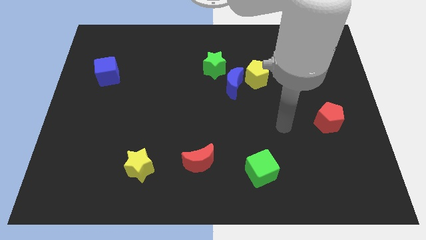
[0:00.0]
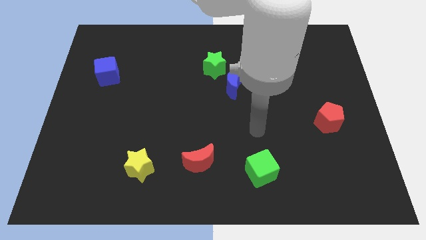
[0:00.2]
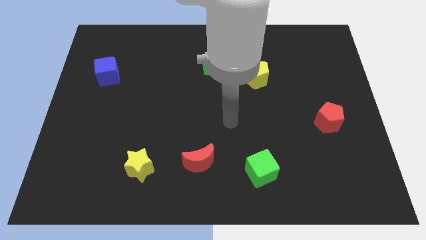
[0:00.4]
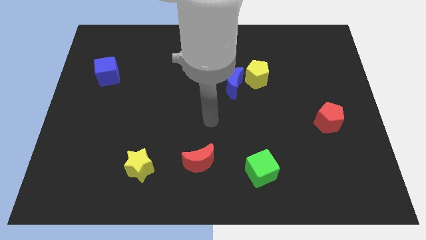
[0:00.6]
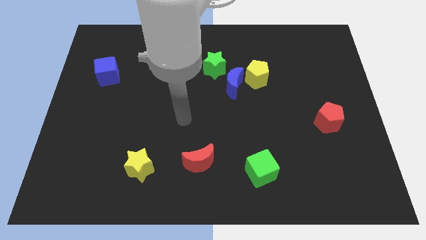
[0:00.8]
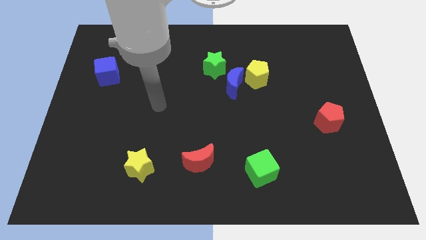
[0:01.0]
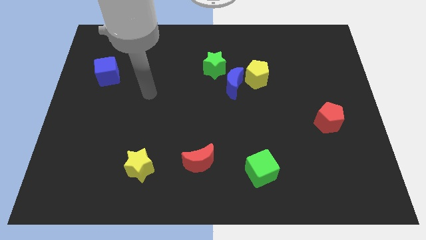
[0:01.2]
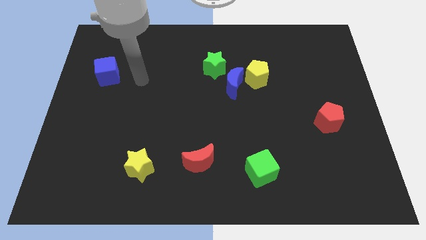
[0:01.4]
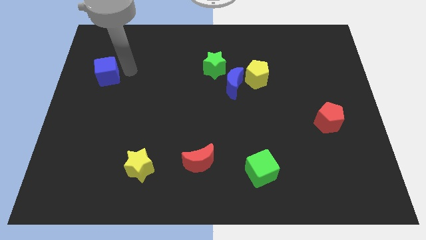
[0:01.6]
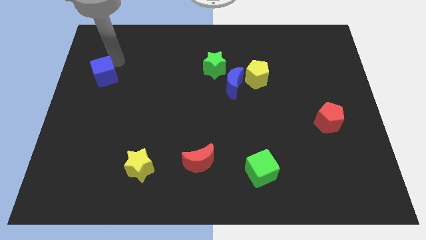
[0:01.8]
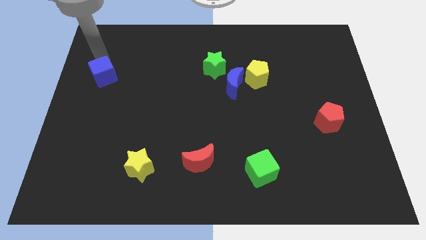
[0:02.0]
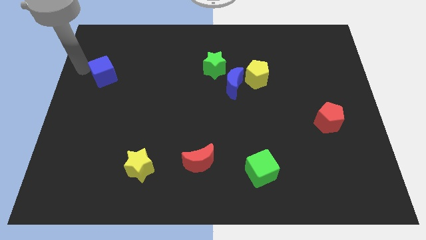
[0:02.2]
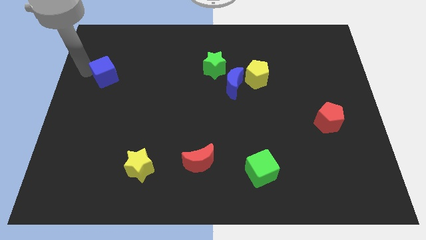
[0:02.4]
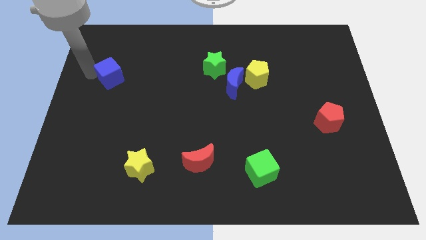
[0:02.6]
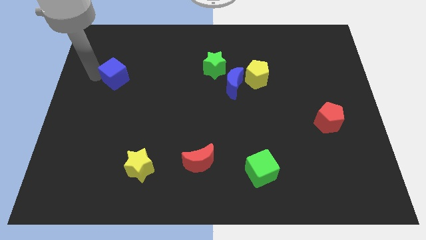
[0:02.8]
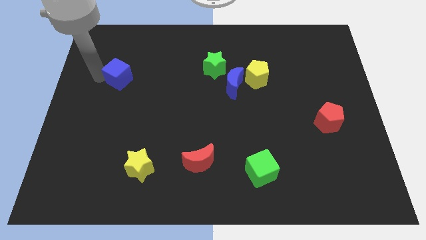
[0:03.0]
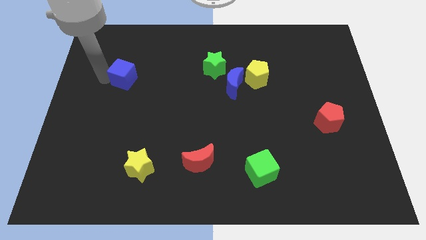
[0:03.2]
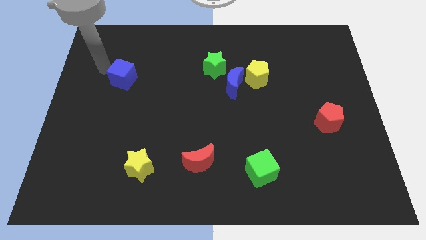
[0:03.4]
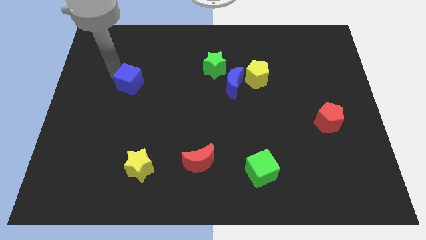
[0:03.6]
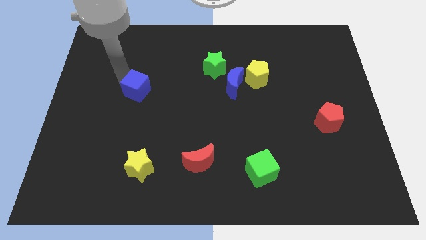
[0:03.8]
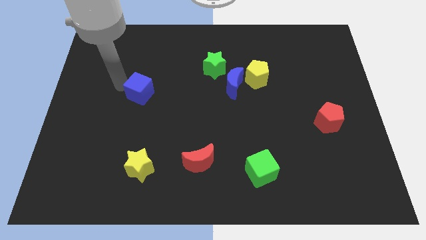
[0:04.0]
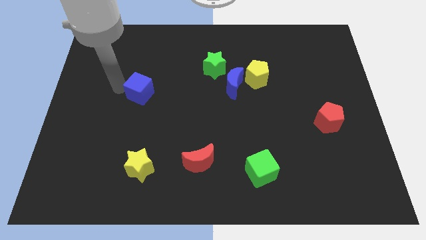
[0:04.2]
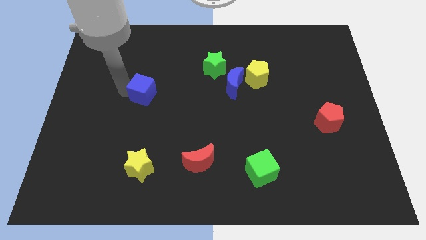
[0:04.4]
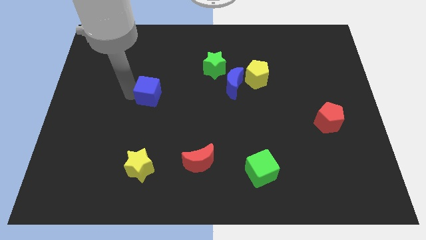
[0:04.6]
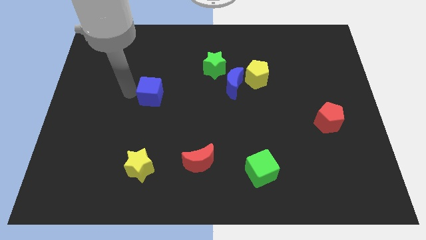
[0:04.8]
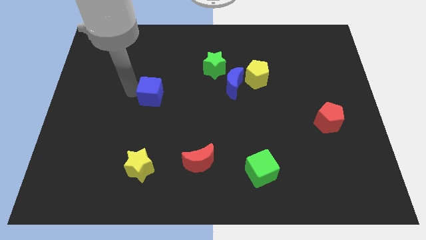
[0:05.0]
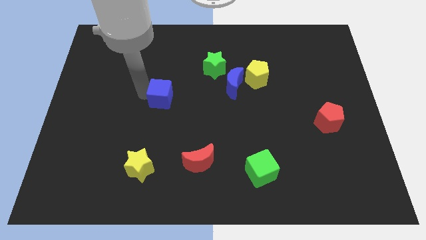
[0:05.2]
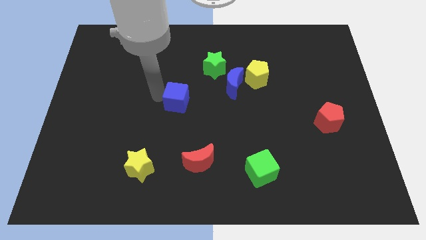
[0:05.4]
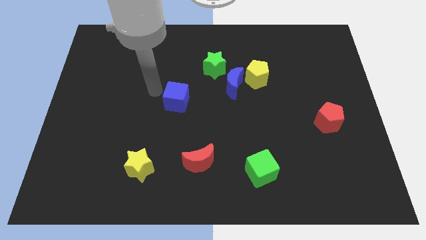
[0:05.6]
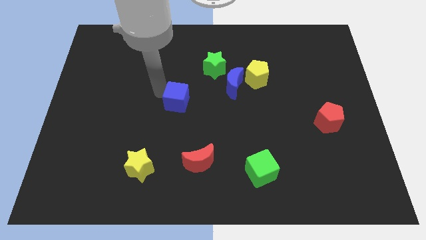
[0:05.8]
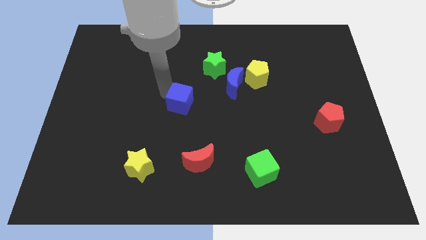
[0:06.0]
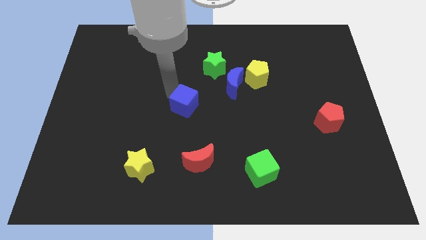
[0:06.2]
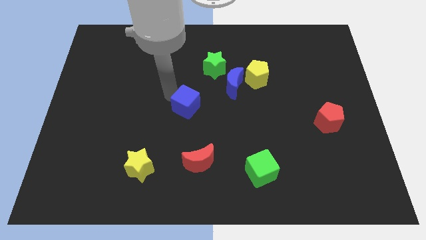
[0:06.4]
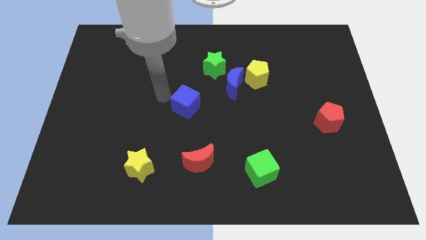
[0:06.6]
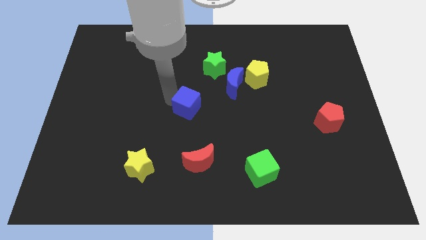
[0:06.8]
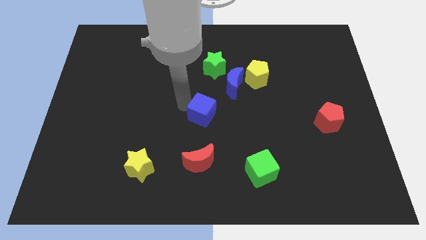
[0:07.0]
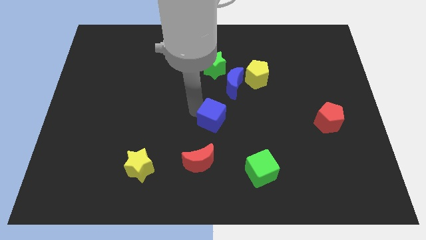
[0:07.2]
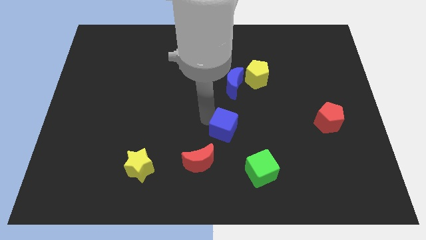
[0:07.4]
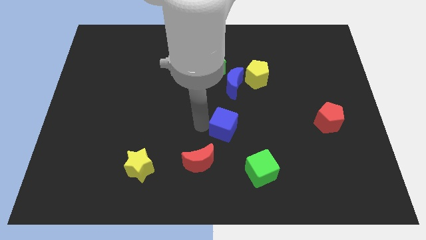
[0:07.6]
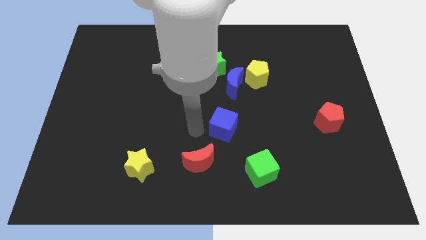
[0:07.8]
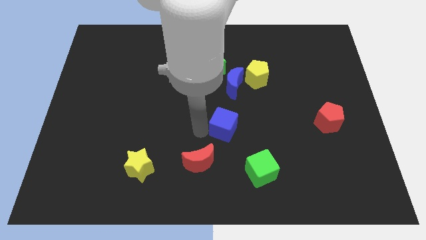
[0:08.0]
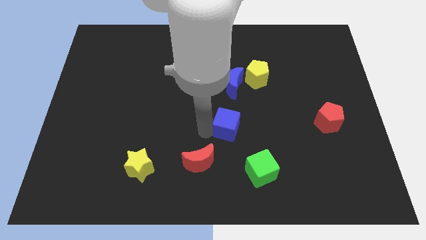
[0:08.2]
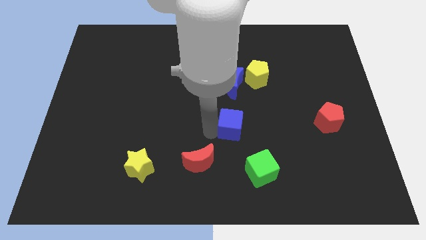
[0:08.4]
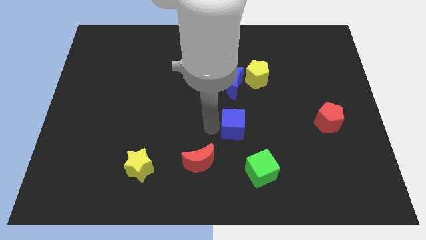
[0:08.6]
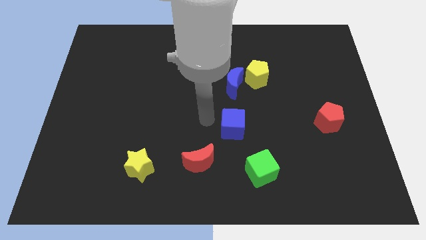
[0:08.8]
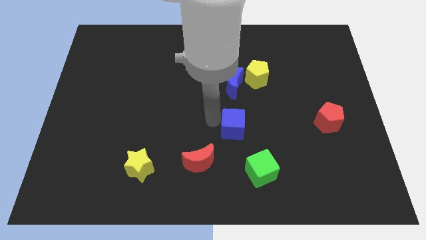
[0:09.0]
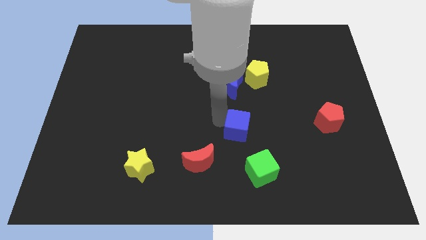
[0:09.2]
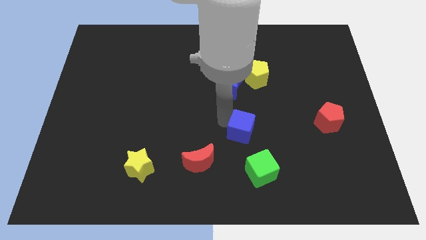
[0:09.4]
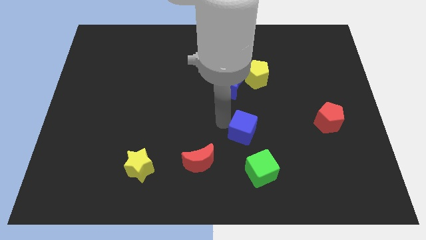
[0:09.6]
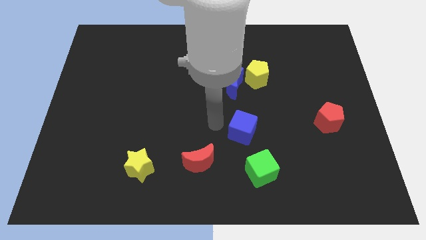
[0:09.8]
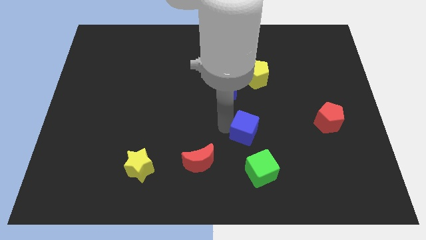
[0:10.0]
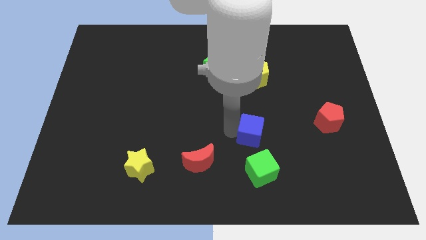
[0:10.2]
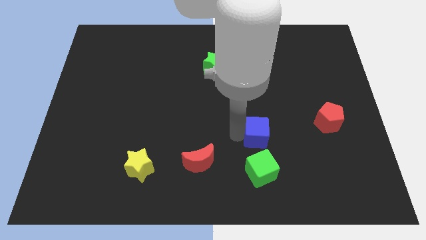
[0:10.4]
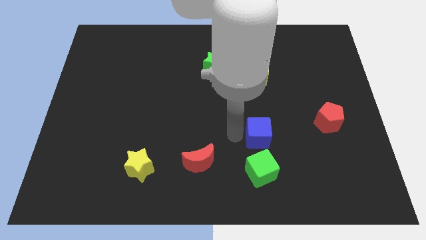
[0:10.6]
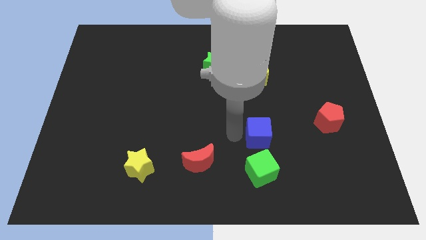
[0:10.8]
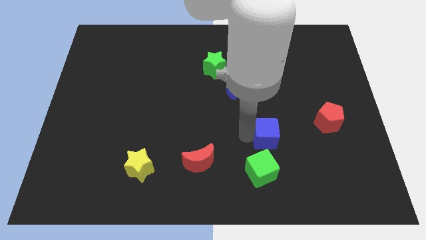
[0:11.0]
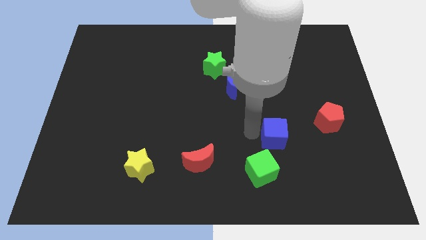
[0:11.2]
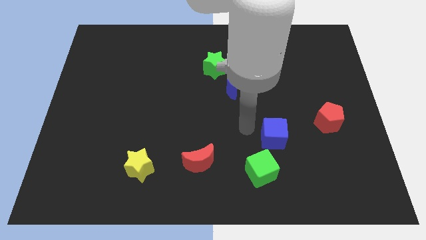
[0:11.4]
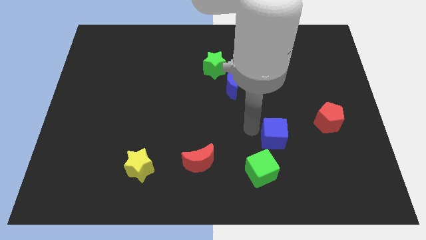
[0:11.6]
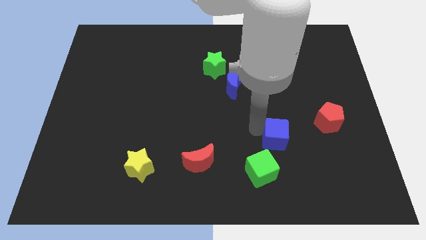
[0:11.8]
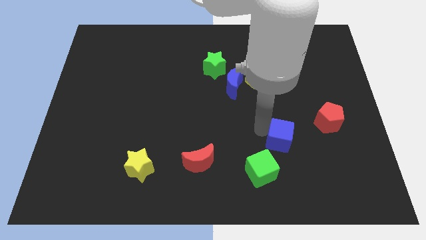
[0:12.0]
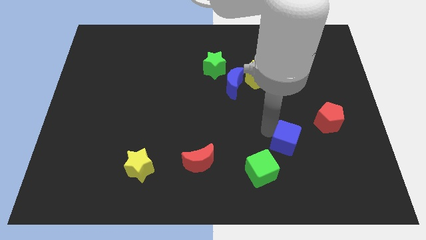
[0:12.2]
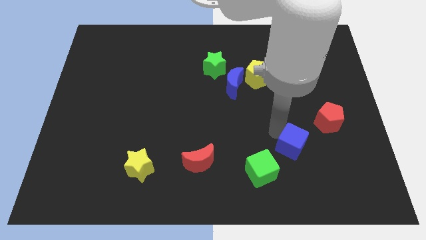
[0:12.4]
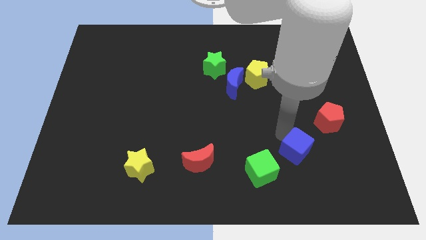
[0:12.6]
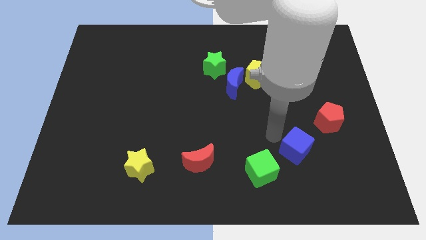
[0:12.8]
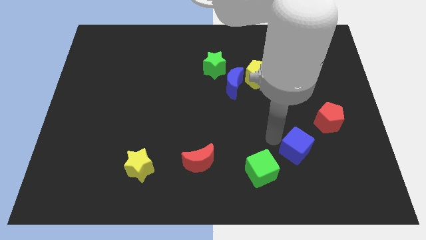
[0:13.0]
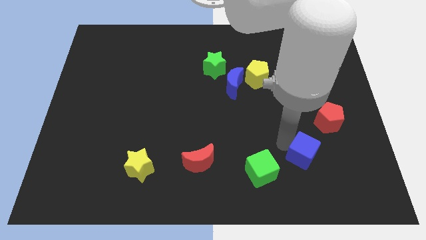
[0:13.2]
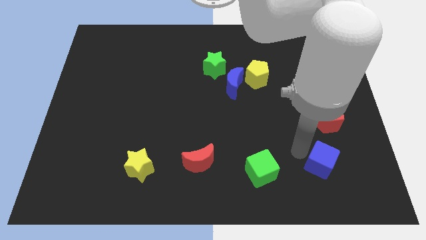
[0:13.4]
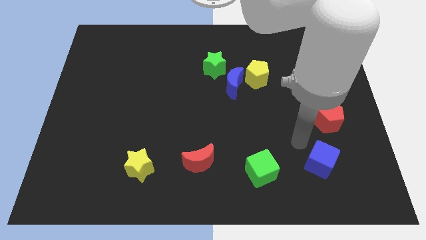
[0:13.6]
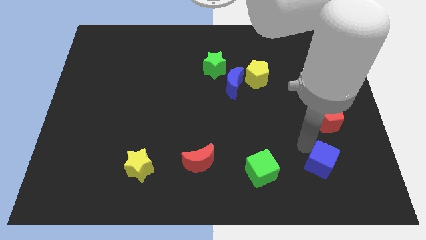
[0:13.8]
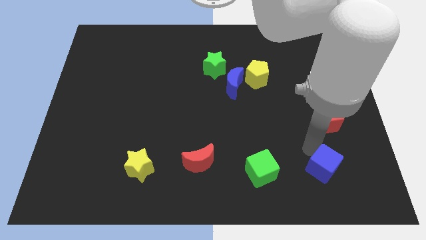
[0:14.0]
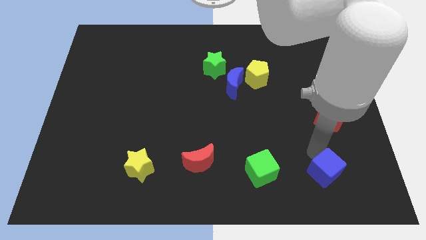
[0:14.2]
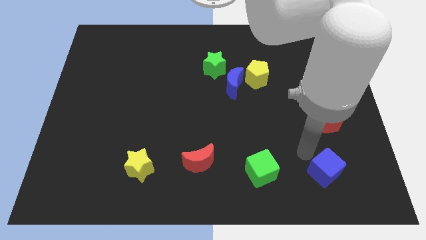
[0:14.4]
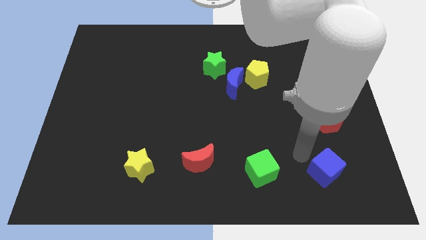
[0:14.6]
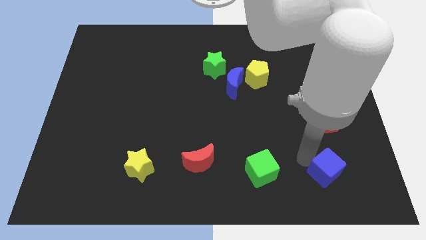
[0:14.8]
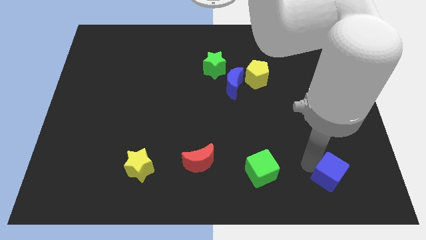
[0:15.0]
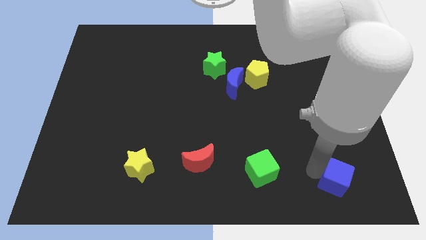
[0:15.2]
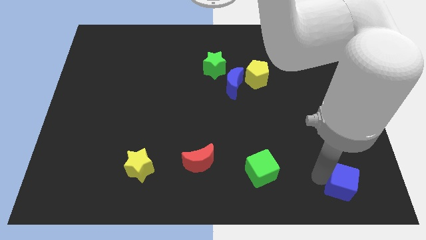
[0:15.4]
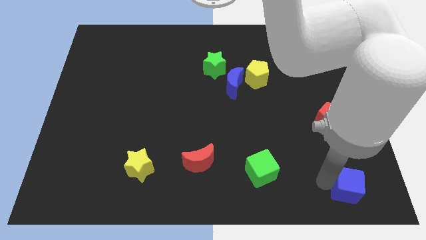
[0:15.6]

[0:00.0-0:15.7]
slide the blue cube to the bottom right of the board
